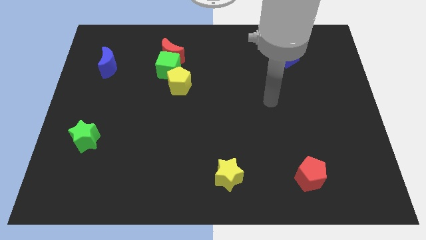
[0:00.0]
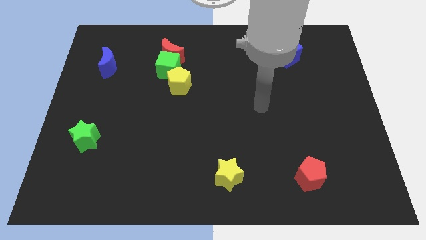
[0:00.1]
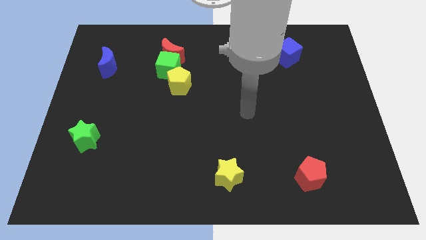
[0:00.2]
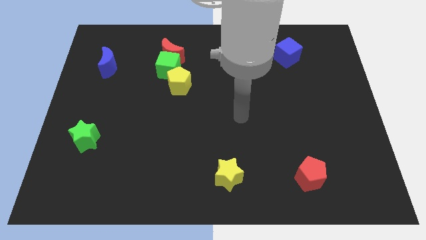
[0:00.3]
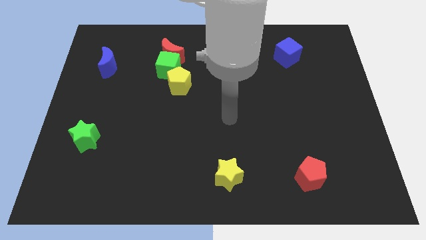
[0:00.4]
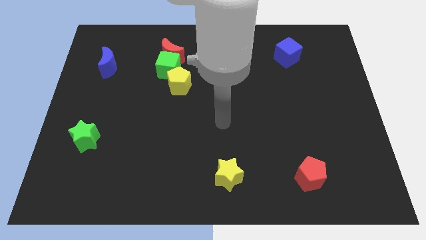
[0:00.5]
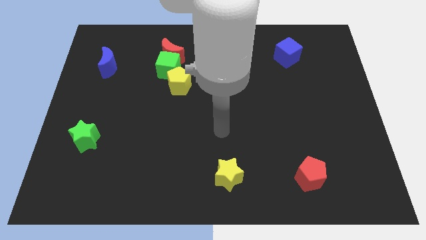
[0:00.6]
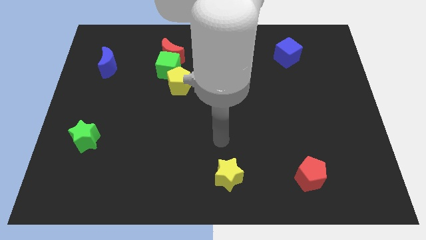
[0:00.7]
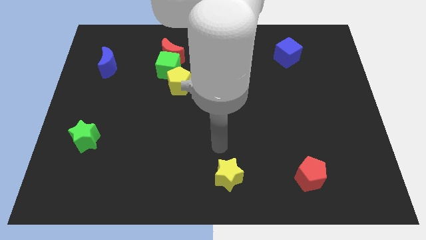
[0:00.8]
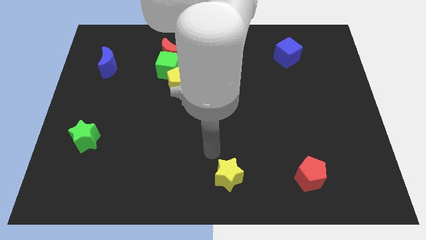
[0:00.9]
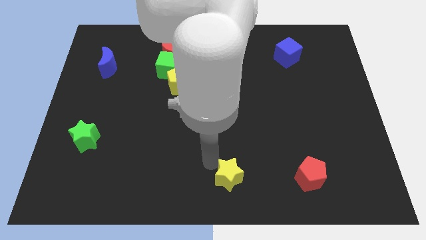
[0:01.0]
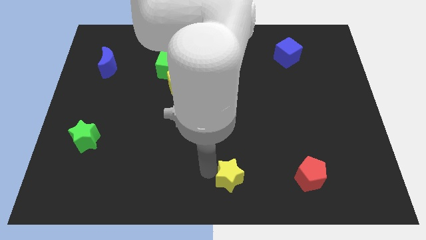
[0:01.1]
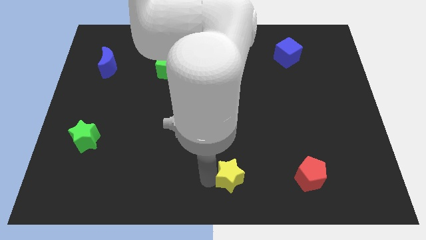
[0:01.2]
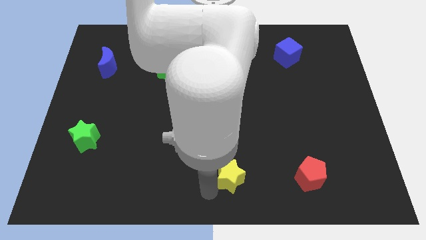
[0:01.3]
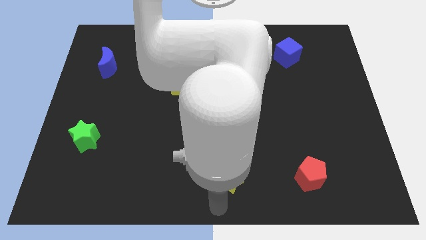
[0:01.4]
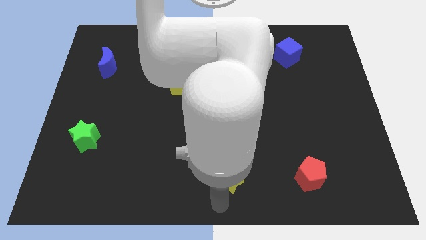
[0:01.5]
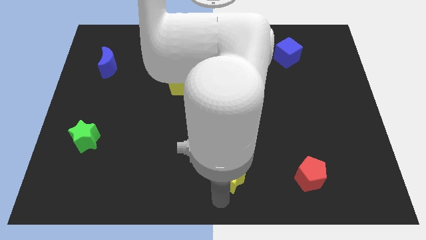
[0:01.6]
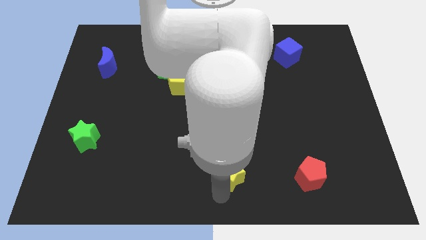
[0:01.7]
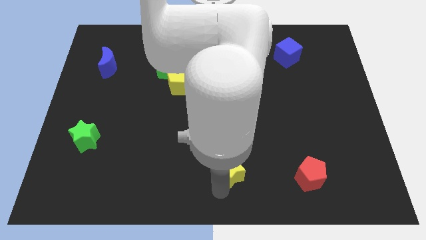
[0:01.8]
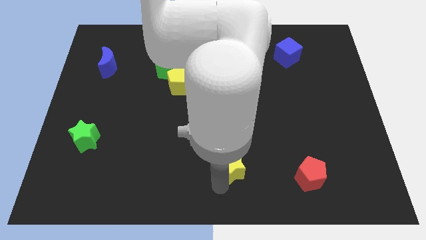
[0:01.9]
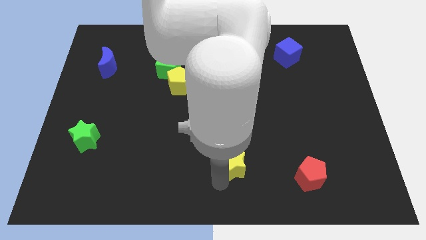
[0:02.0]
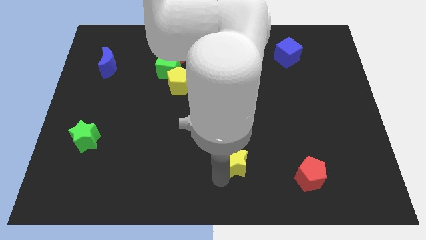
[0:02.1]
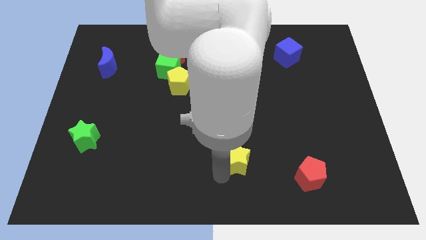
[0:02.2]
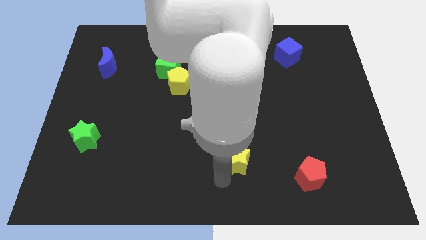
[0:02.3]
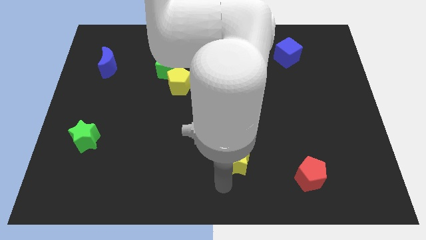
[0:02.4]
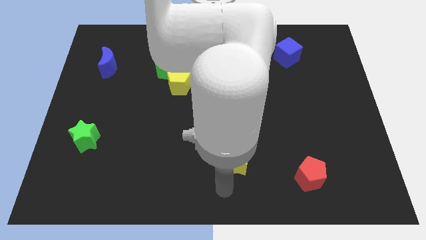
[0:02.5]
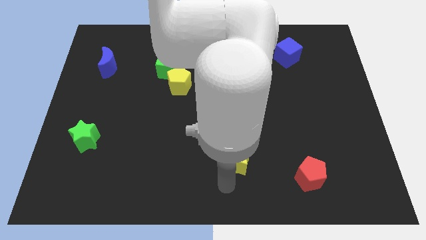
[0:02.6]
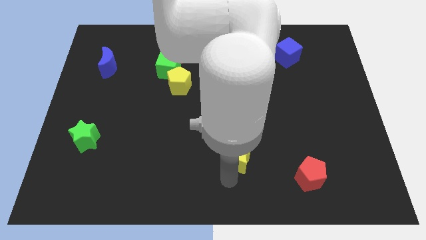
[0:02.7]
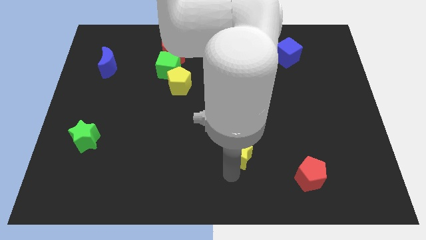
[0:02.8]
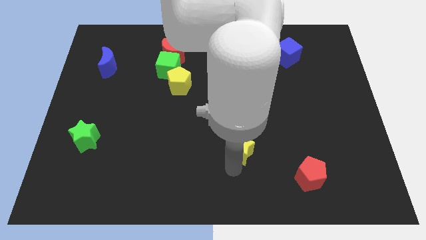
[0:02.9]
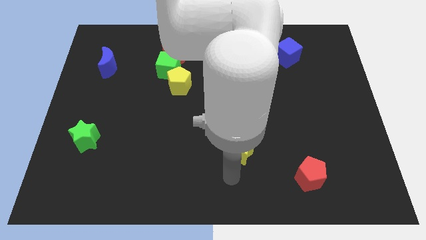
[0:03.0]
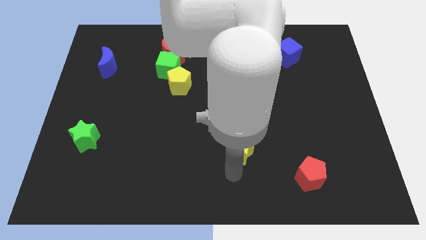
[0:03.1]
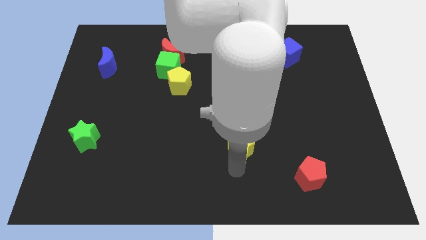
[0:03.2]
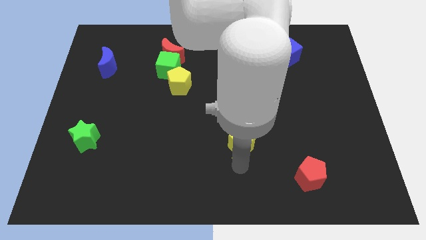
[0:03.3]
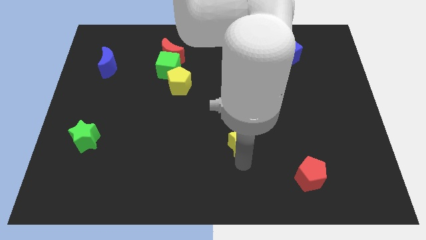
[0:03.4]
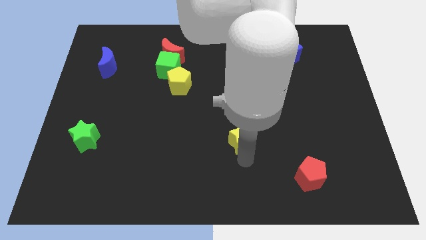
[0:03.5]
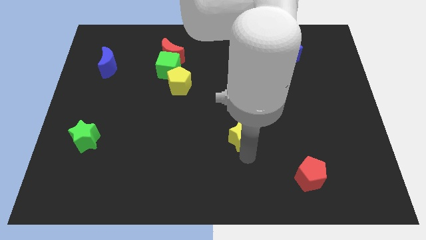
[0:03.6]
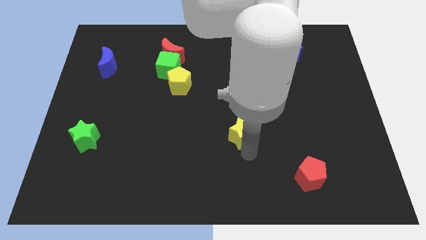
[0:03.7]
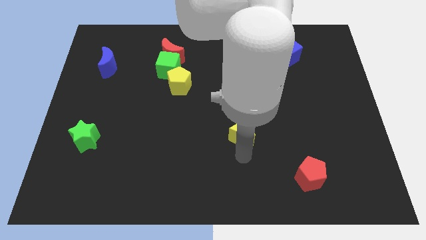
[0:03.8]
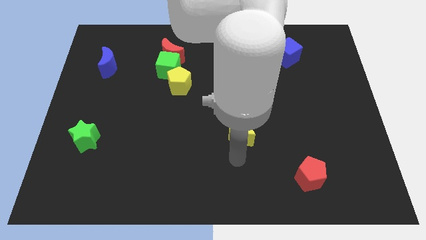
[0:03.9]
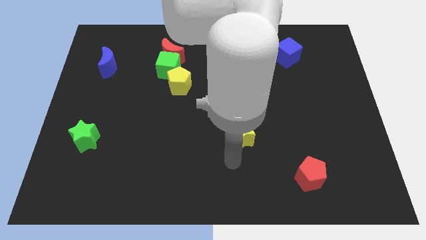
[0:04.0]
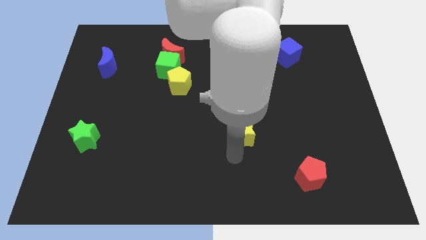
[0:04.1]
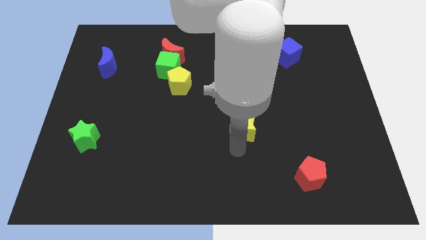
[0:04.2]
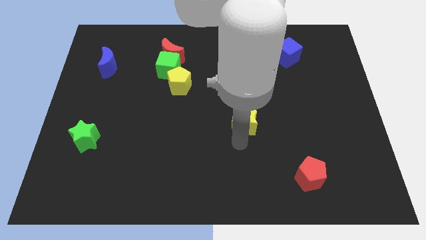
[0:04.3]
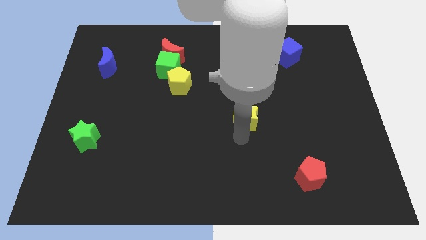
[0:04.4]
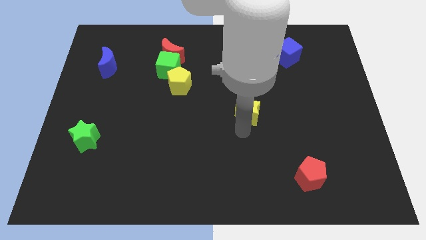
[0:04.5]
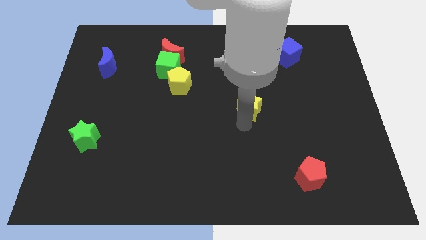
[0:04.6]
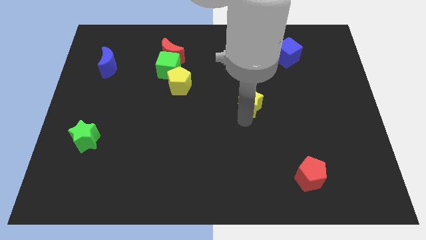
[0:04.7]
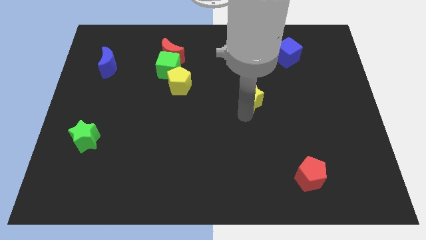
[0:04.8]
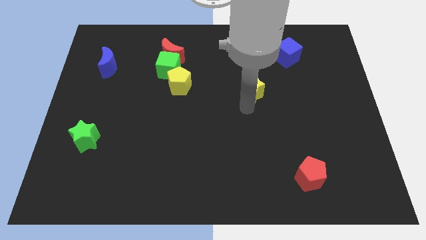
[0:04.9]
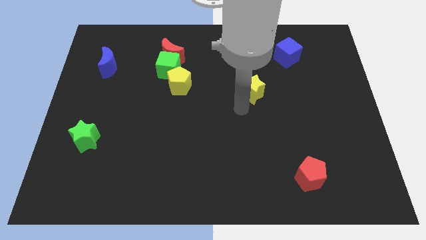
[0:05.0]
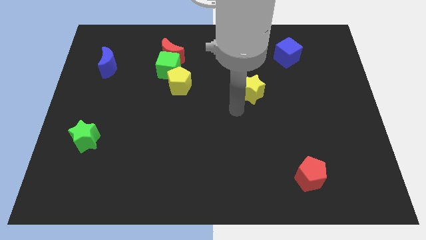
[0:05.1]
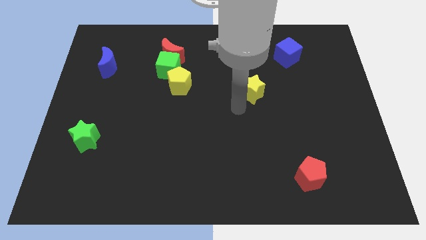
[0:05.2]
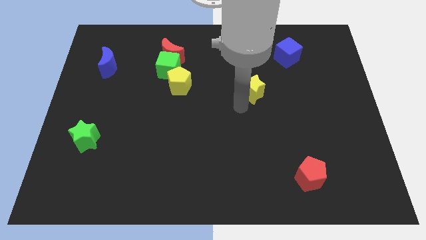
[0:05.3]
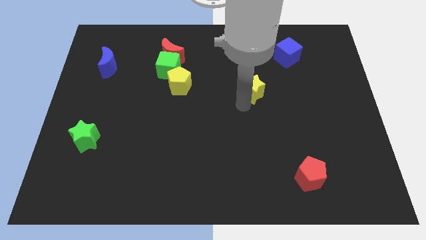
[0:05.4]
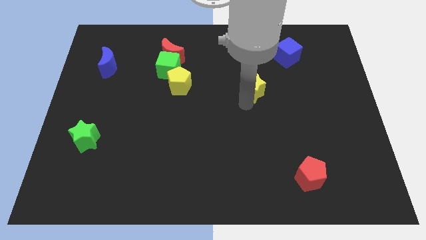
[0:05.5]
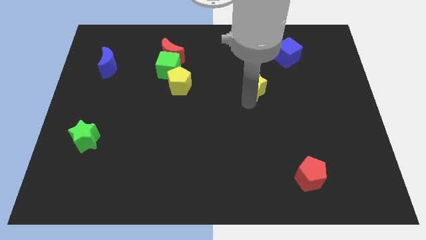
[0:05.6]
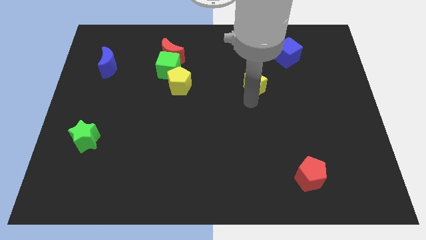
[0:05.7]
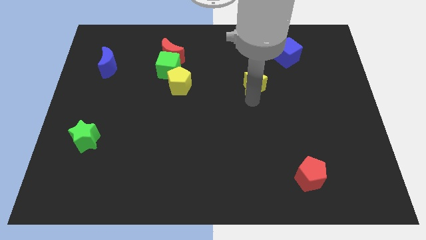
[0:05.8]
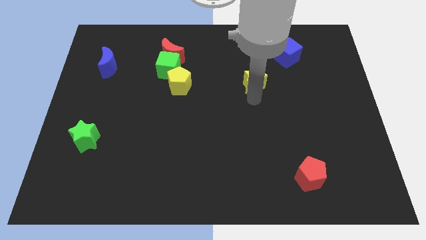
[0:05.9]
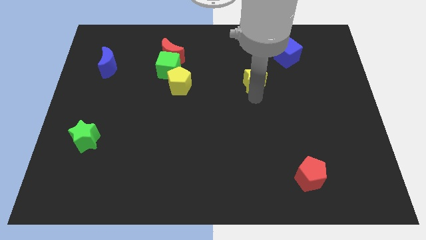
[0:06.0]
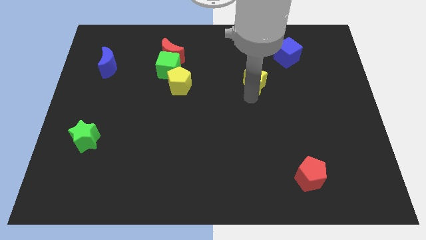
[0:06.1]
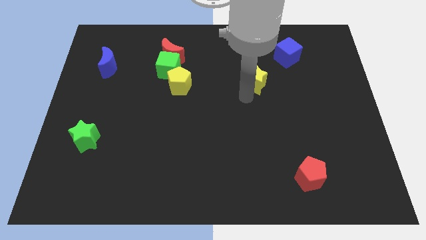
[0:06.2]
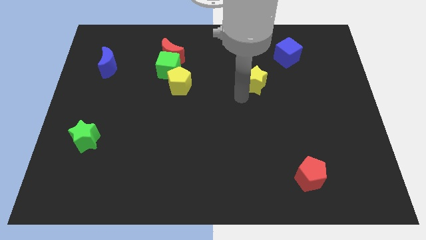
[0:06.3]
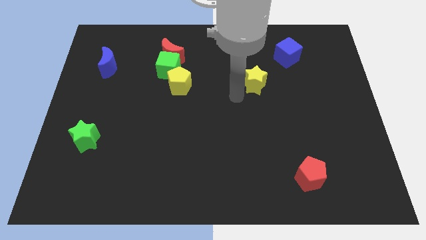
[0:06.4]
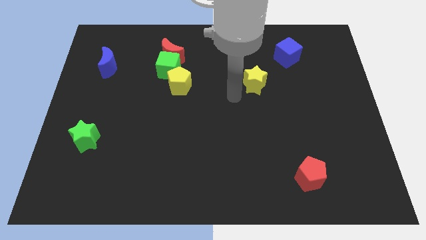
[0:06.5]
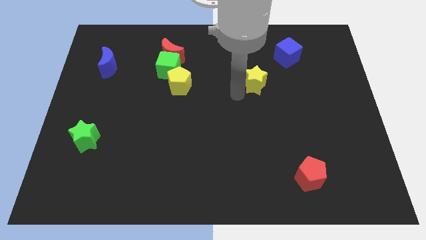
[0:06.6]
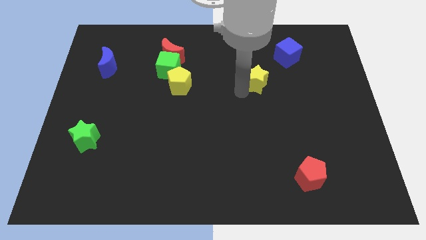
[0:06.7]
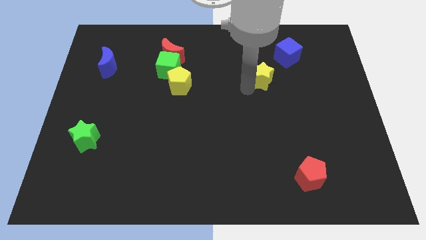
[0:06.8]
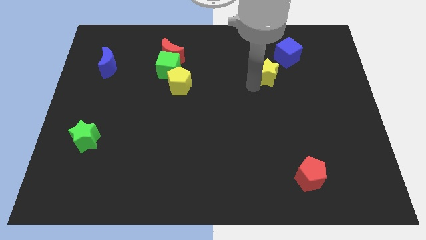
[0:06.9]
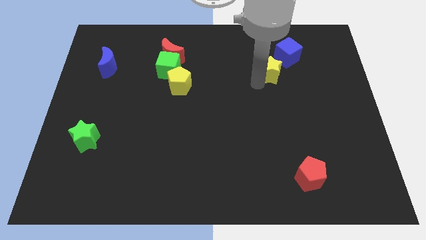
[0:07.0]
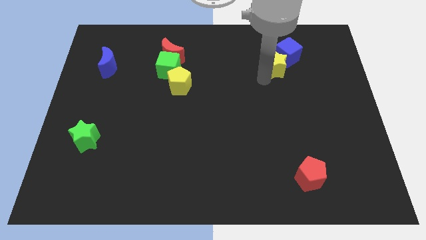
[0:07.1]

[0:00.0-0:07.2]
slide the yellow star towards the blue cube
